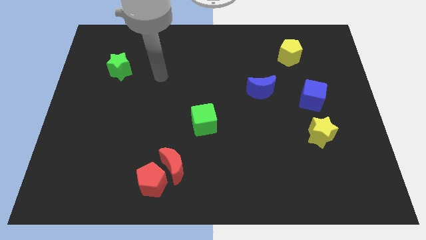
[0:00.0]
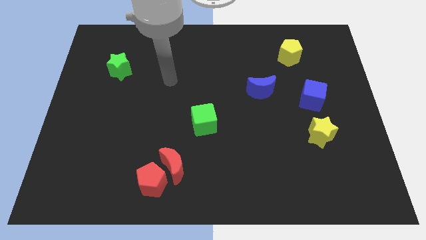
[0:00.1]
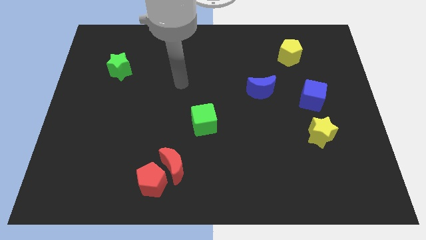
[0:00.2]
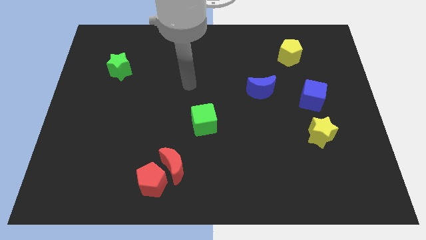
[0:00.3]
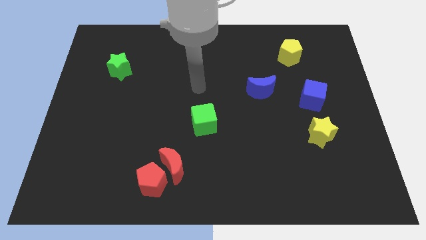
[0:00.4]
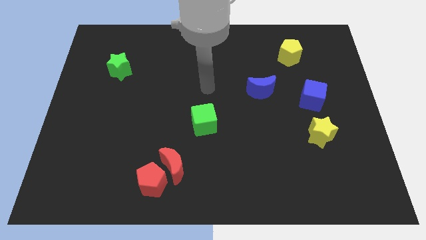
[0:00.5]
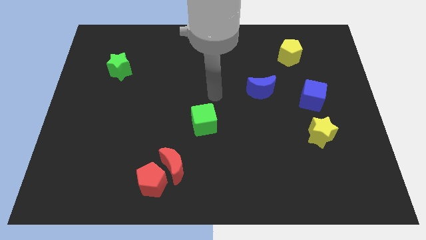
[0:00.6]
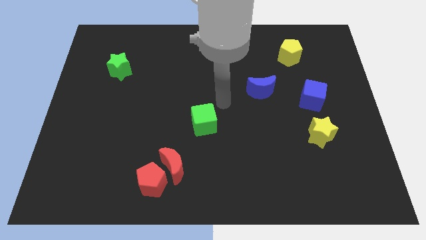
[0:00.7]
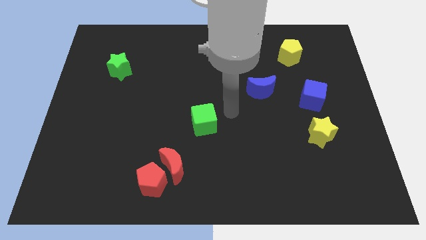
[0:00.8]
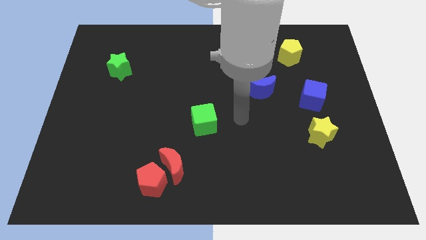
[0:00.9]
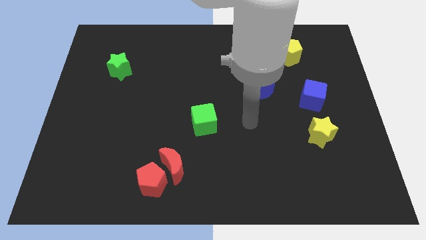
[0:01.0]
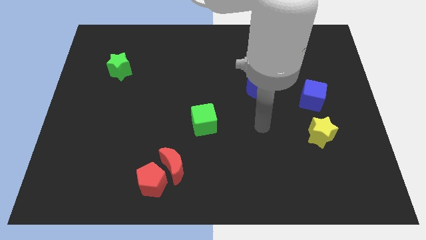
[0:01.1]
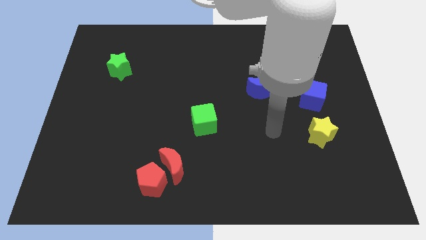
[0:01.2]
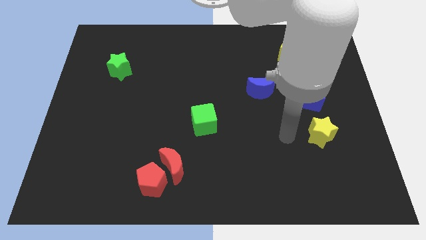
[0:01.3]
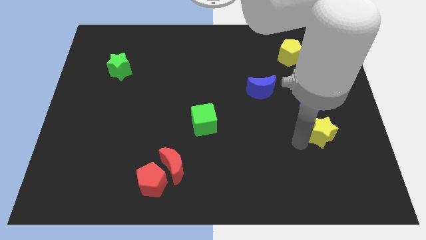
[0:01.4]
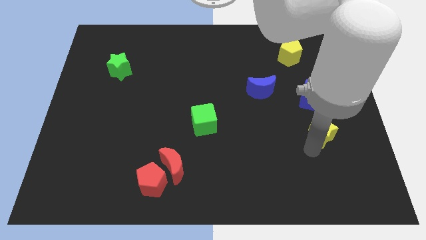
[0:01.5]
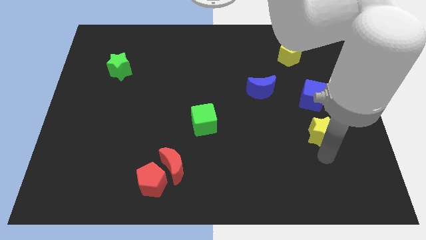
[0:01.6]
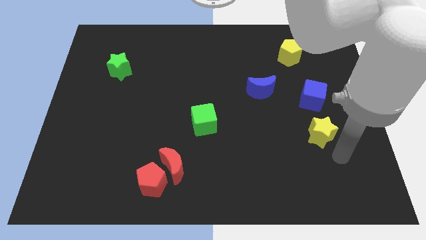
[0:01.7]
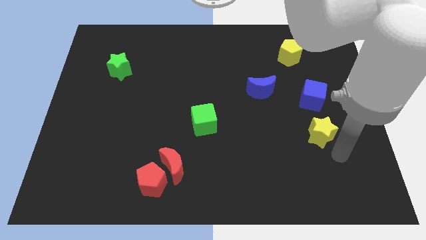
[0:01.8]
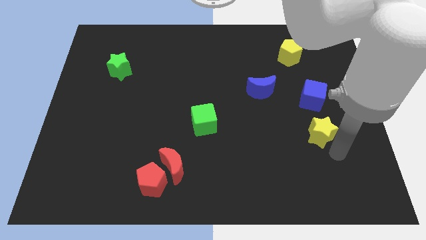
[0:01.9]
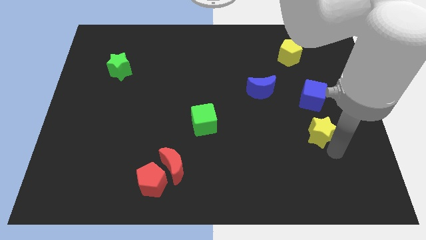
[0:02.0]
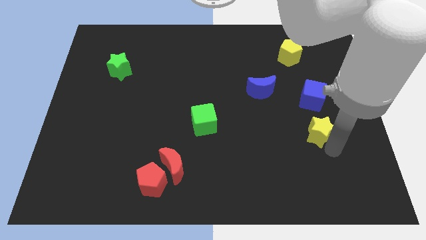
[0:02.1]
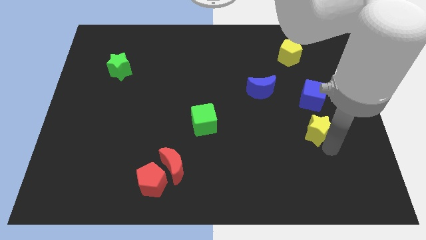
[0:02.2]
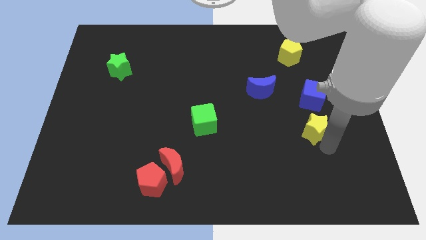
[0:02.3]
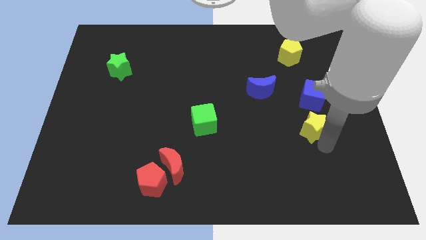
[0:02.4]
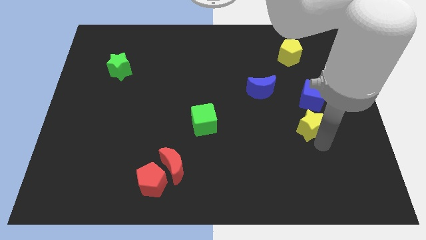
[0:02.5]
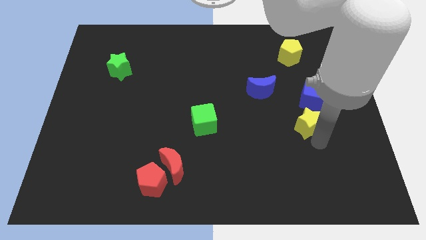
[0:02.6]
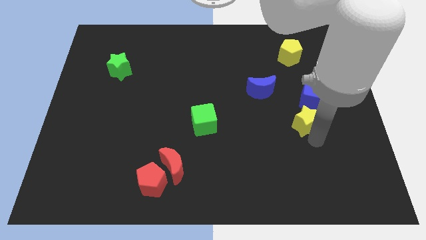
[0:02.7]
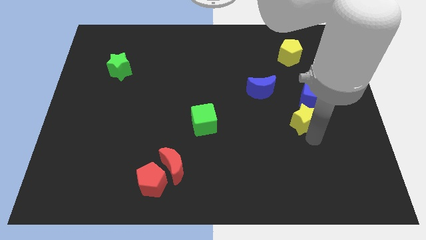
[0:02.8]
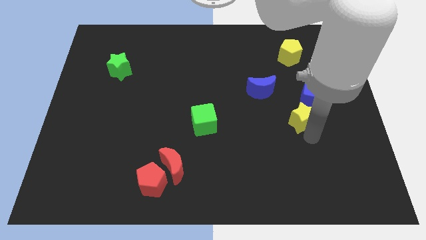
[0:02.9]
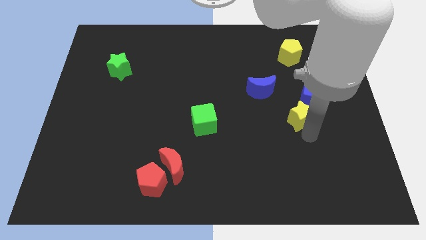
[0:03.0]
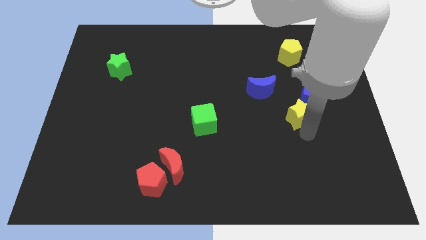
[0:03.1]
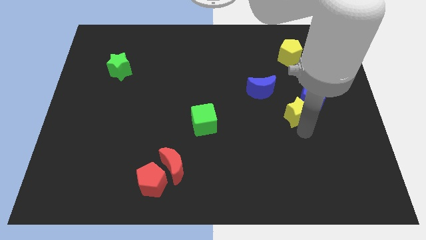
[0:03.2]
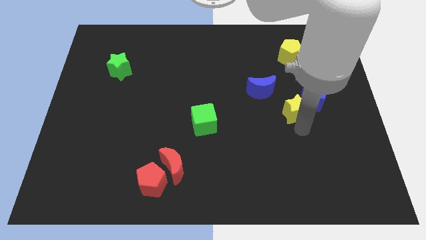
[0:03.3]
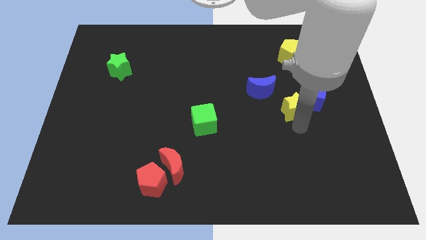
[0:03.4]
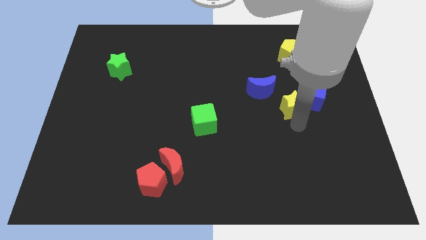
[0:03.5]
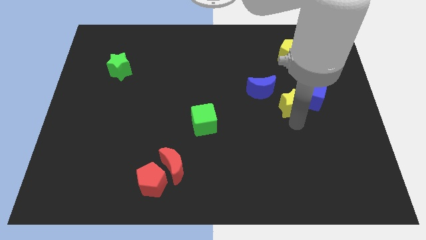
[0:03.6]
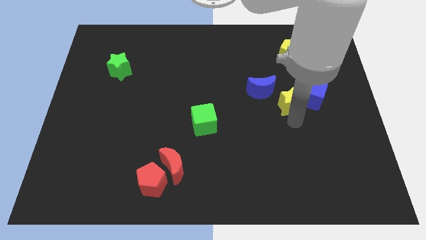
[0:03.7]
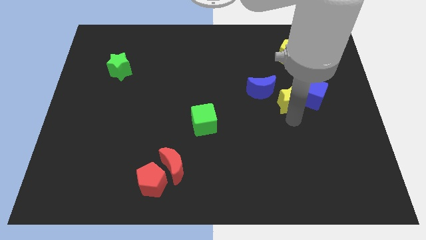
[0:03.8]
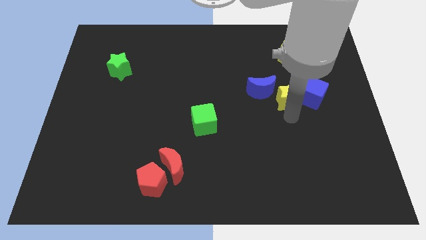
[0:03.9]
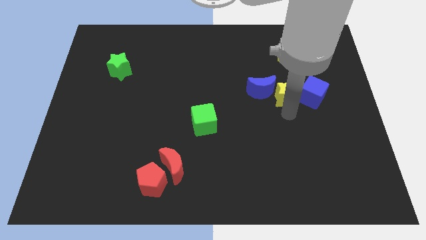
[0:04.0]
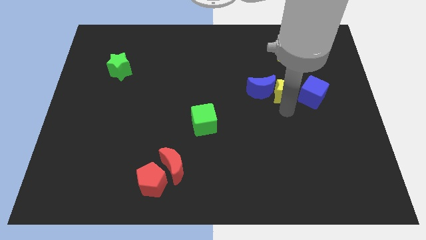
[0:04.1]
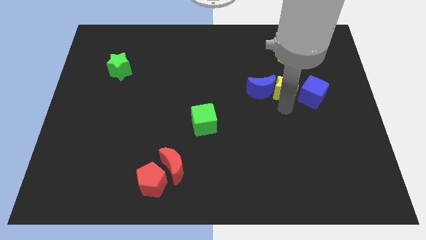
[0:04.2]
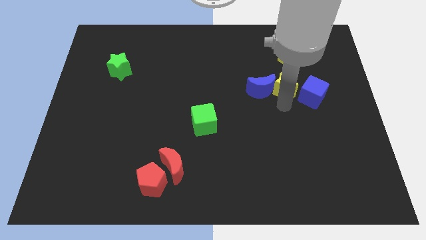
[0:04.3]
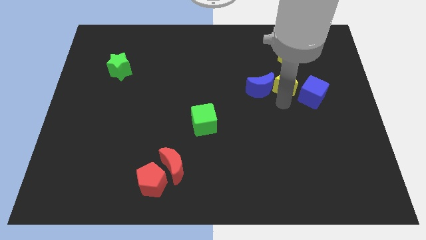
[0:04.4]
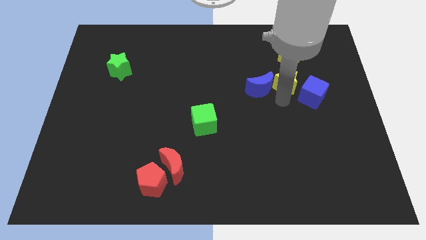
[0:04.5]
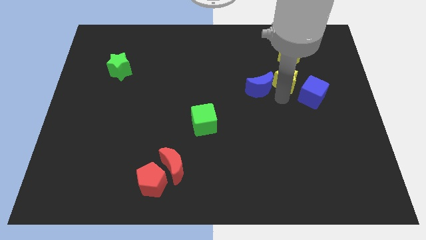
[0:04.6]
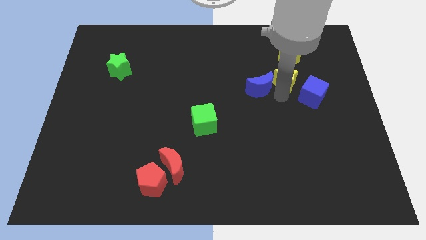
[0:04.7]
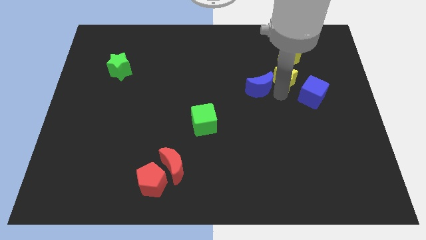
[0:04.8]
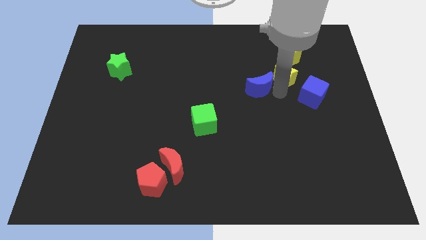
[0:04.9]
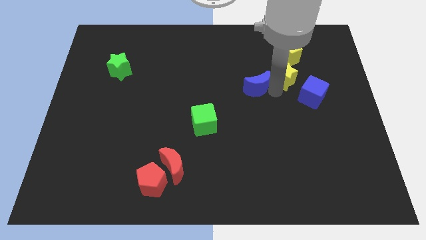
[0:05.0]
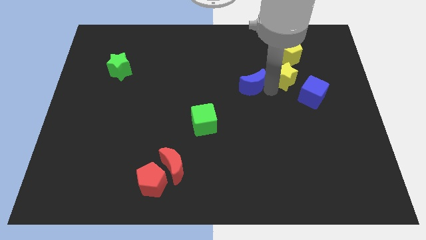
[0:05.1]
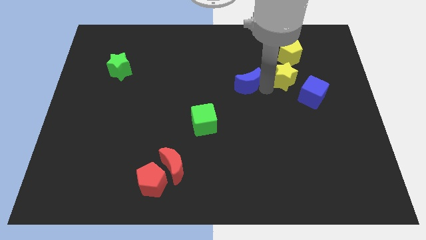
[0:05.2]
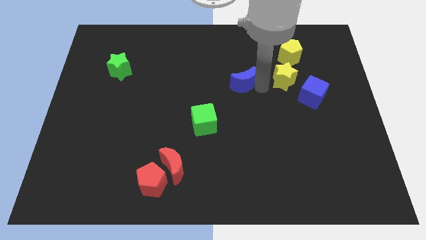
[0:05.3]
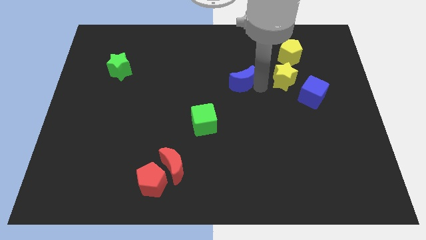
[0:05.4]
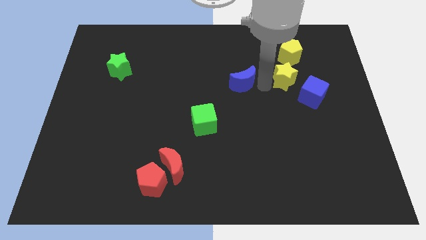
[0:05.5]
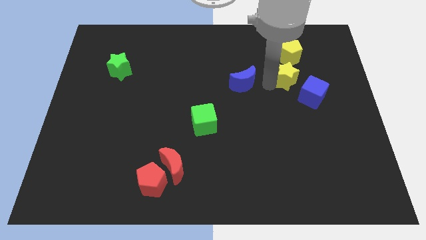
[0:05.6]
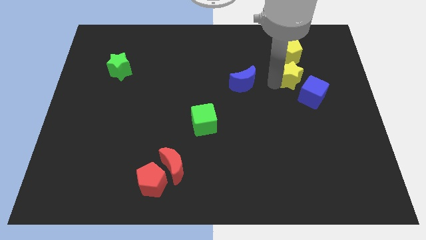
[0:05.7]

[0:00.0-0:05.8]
slide the yellow star to the top side of the blue cube
